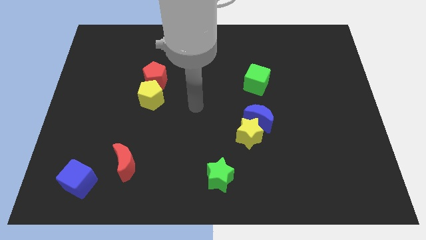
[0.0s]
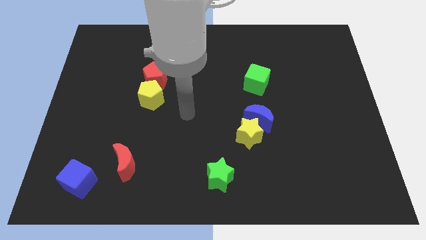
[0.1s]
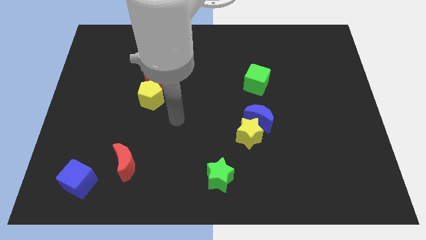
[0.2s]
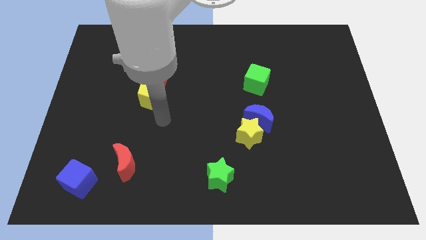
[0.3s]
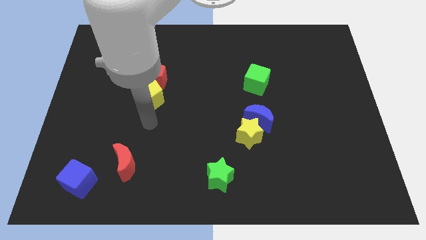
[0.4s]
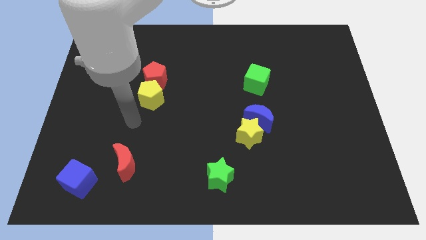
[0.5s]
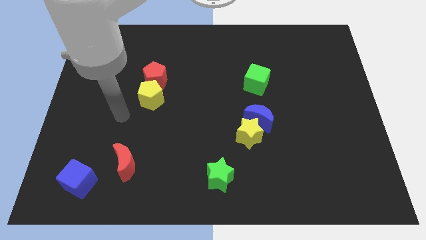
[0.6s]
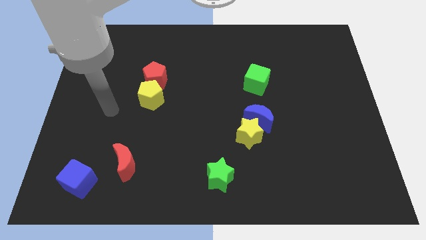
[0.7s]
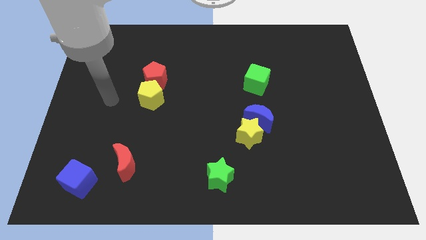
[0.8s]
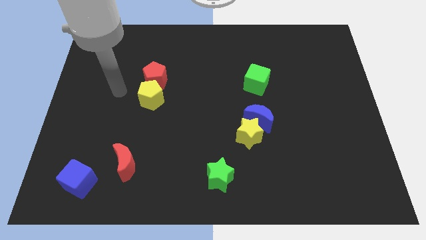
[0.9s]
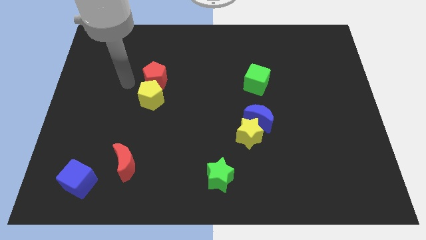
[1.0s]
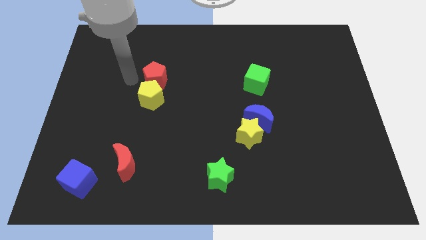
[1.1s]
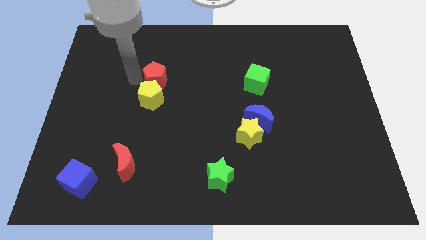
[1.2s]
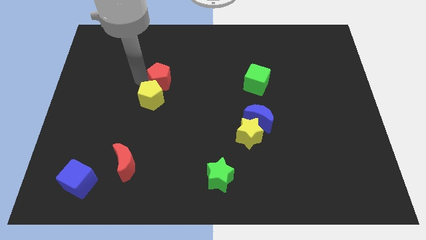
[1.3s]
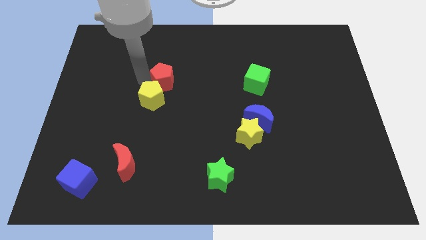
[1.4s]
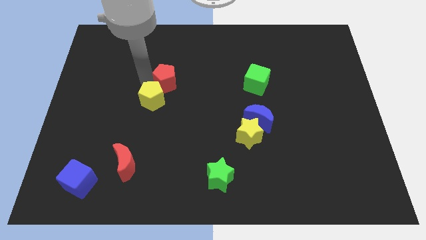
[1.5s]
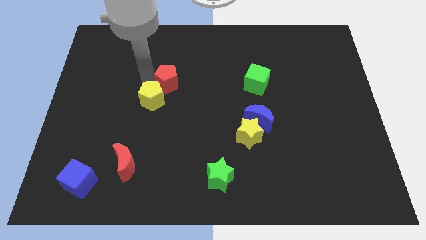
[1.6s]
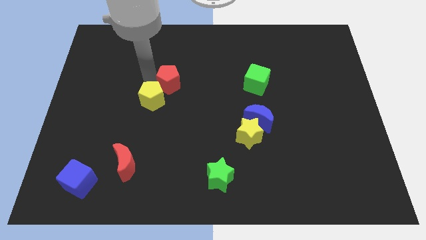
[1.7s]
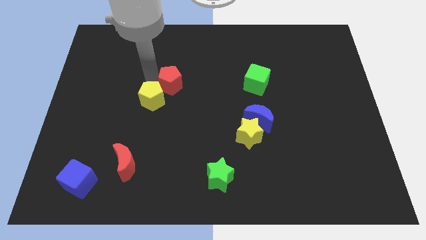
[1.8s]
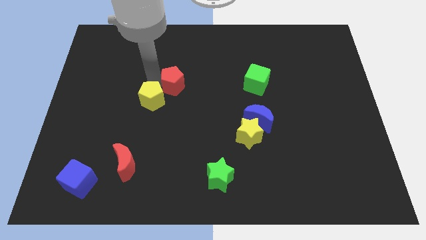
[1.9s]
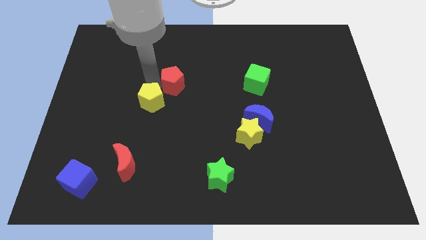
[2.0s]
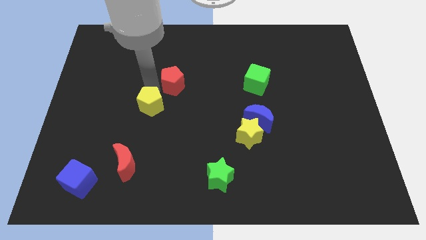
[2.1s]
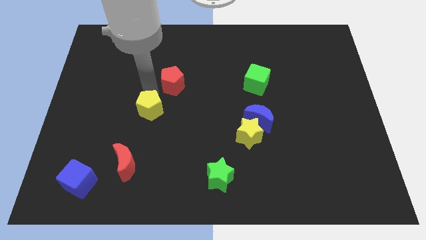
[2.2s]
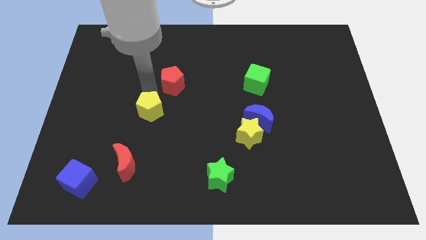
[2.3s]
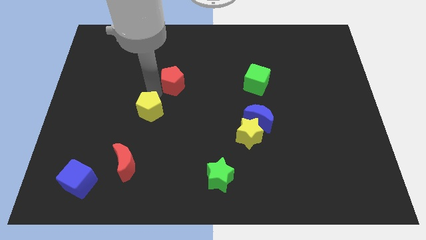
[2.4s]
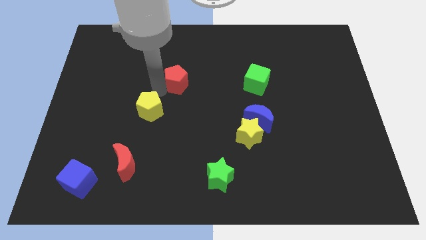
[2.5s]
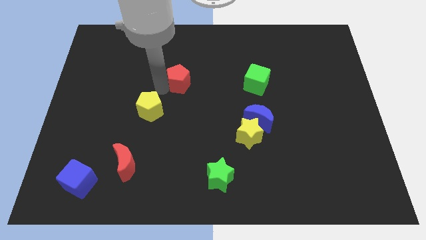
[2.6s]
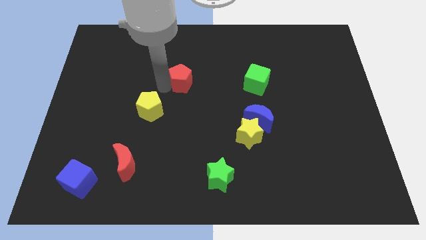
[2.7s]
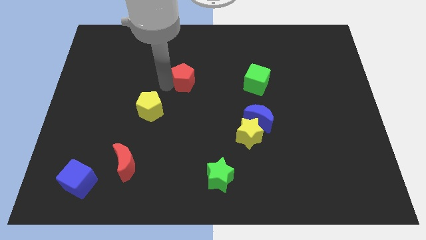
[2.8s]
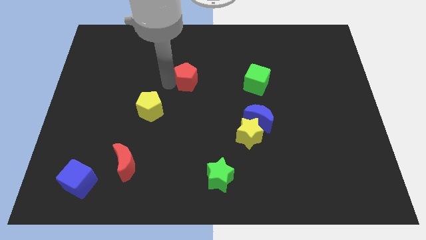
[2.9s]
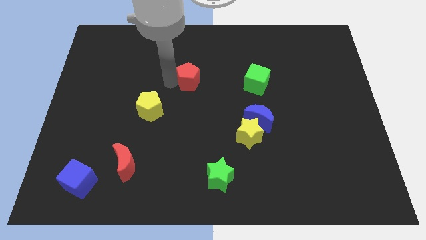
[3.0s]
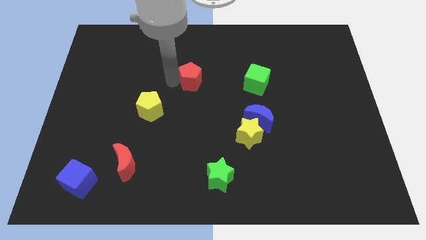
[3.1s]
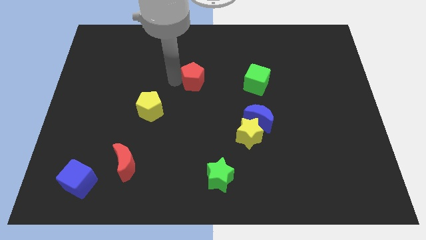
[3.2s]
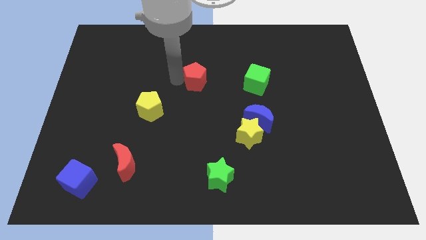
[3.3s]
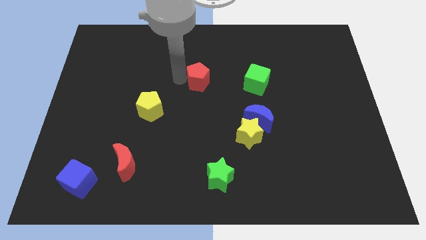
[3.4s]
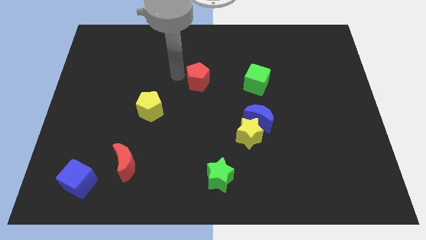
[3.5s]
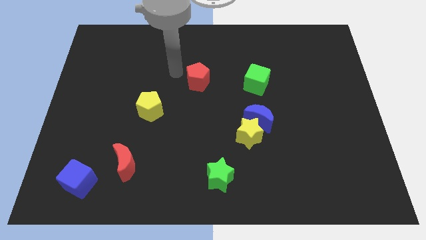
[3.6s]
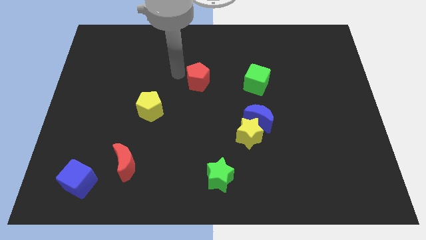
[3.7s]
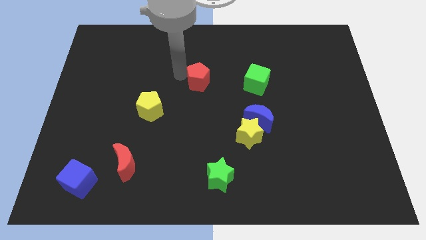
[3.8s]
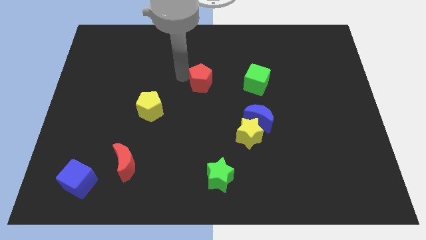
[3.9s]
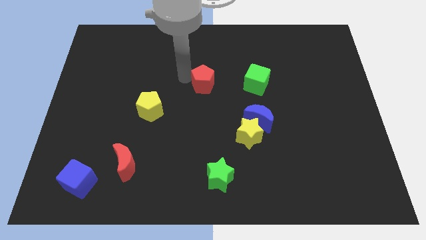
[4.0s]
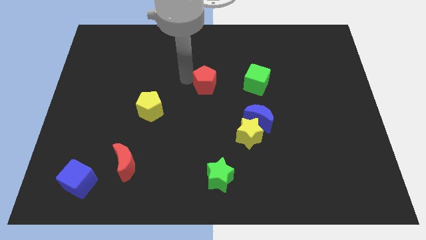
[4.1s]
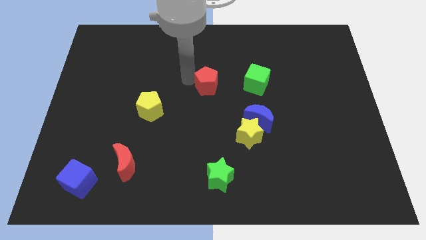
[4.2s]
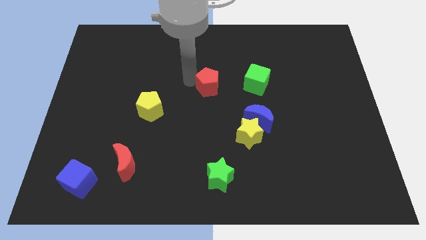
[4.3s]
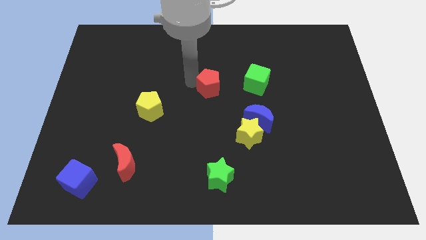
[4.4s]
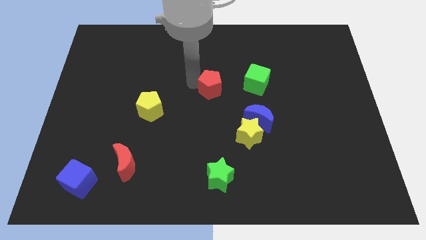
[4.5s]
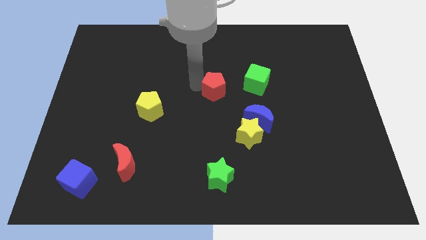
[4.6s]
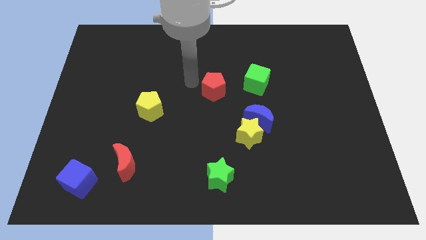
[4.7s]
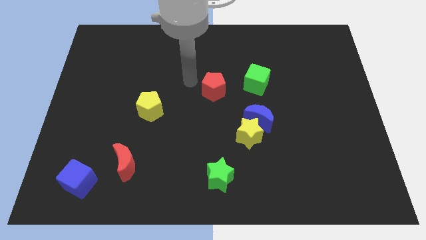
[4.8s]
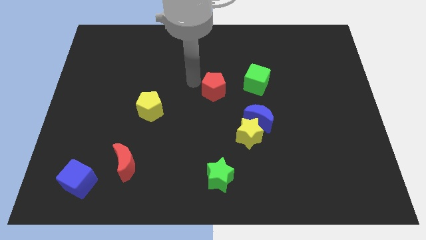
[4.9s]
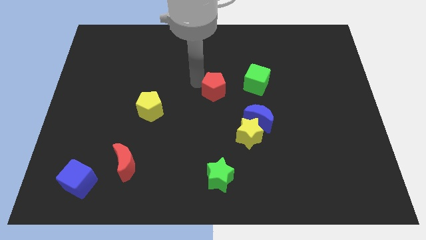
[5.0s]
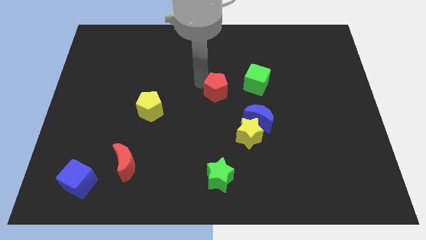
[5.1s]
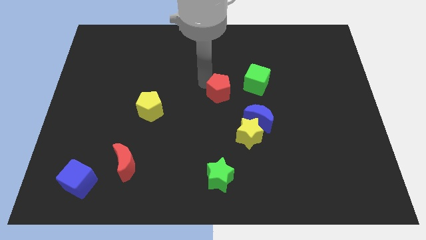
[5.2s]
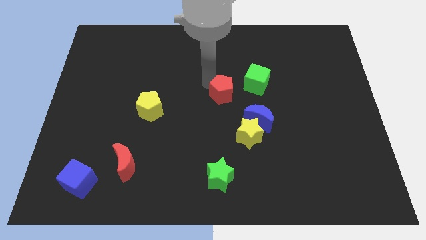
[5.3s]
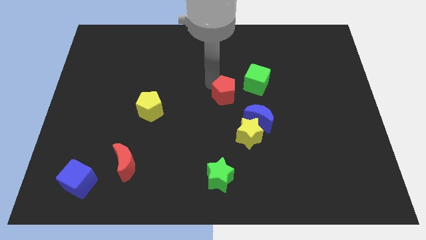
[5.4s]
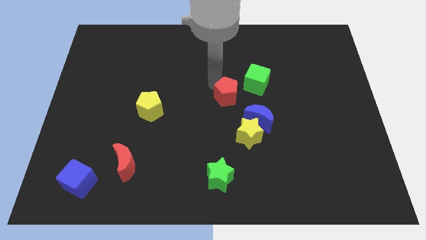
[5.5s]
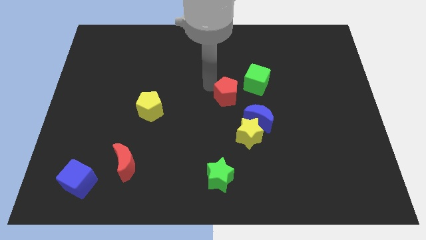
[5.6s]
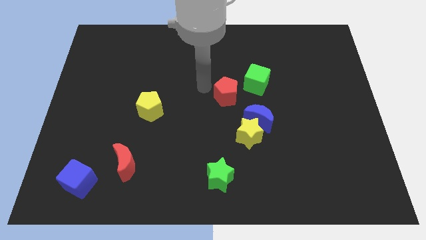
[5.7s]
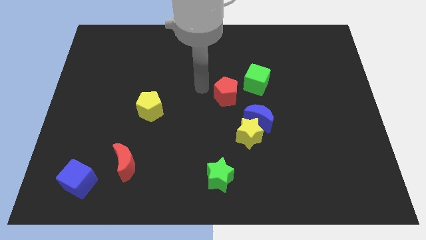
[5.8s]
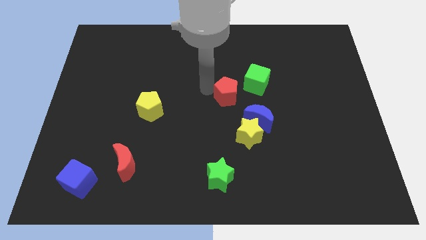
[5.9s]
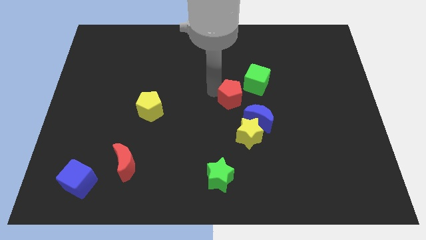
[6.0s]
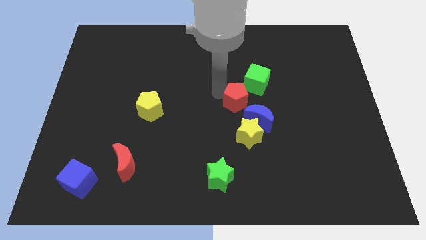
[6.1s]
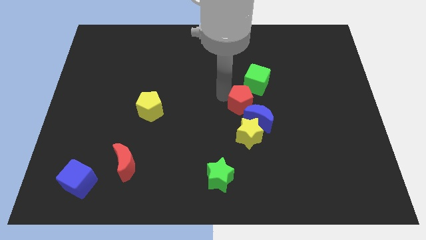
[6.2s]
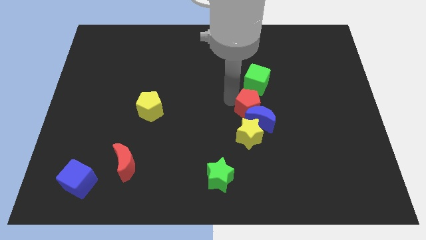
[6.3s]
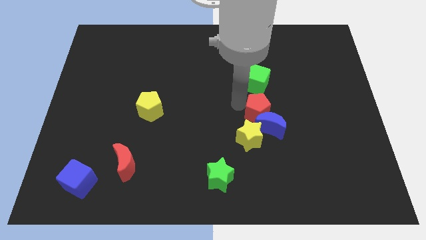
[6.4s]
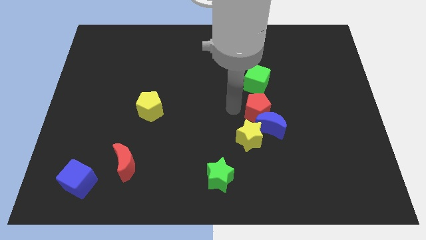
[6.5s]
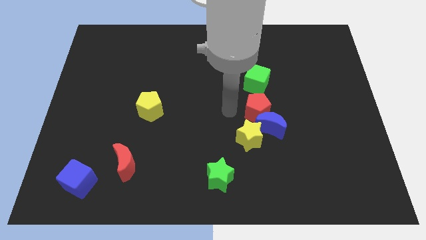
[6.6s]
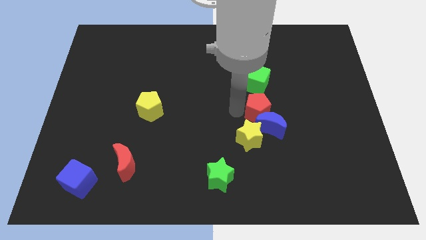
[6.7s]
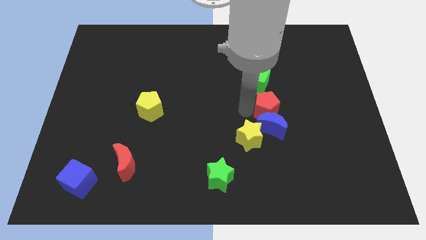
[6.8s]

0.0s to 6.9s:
move the red pentagon to the top right side of the blue moon
